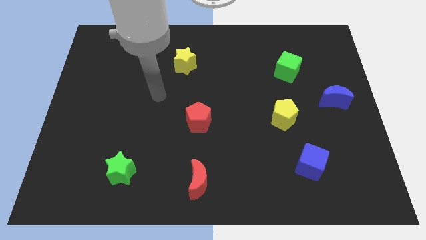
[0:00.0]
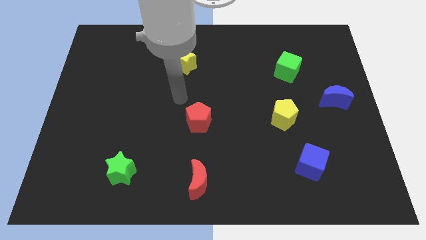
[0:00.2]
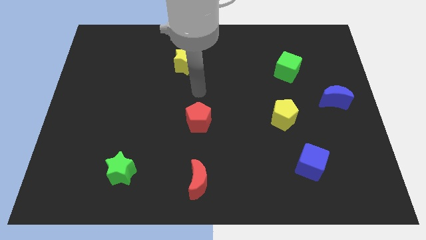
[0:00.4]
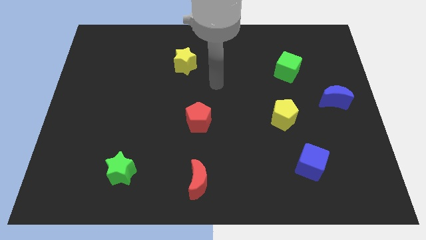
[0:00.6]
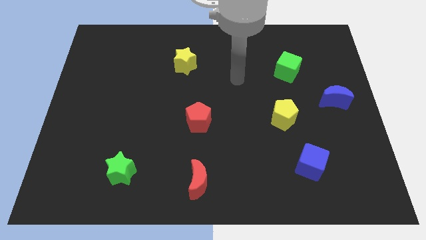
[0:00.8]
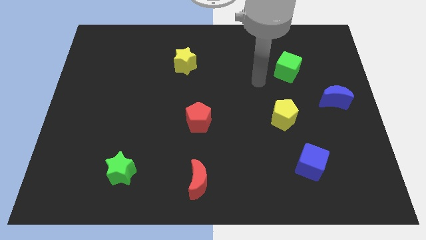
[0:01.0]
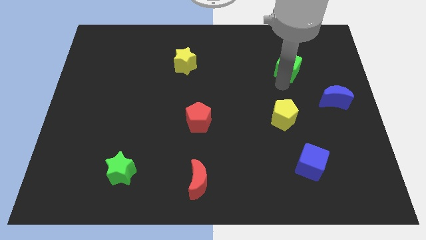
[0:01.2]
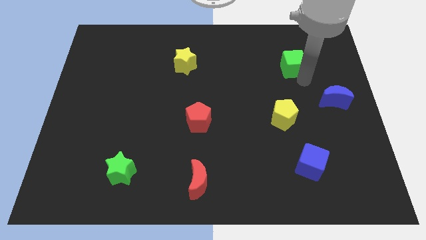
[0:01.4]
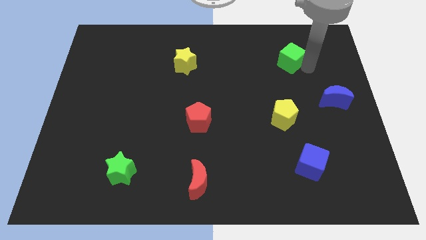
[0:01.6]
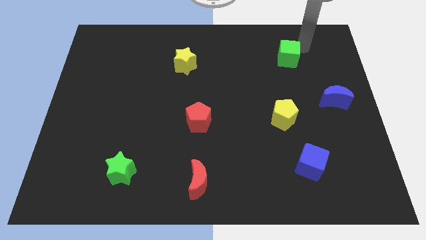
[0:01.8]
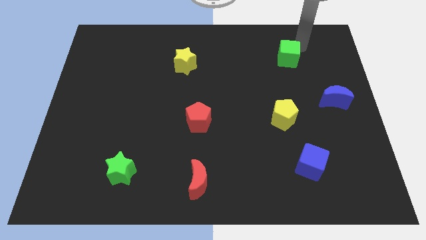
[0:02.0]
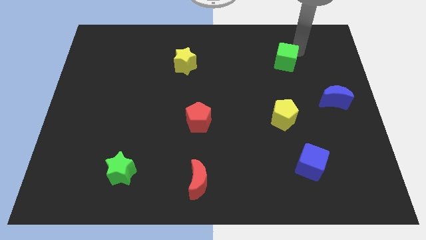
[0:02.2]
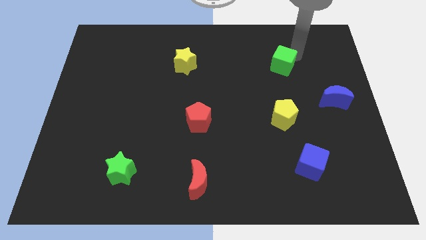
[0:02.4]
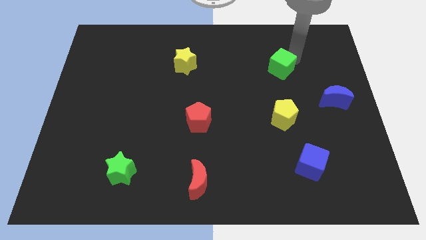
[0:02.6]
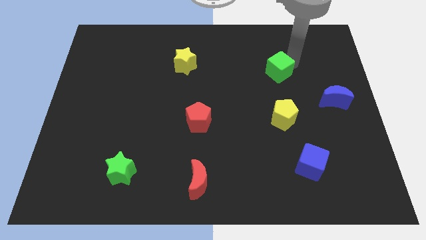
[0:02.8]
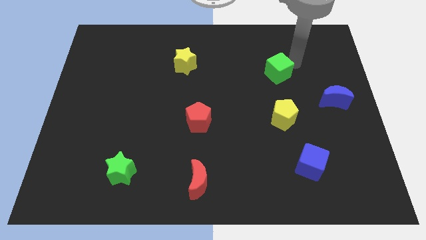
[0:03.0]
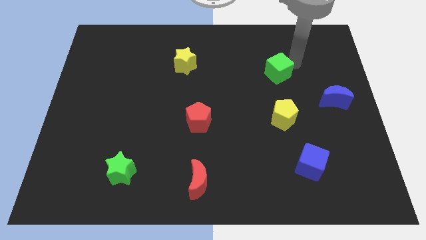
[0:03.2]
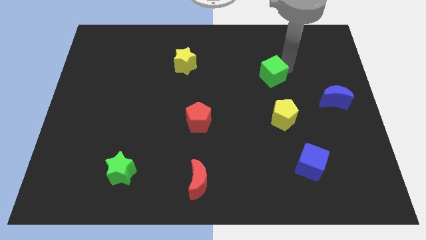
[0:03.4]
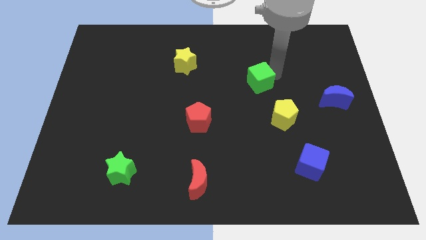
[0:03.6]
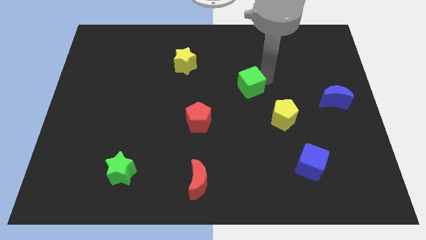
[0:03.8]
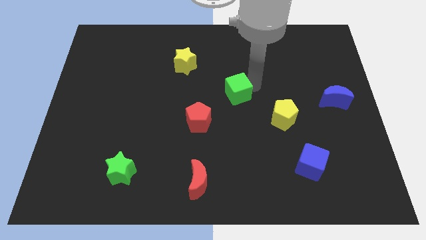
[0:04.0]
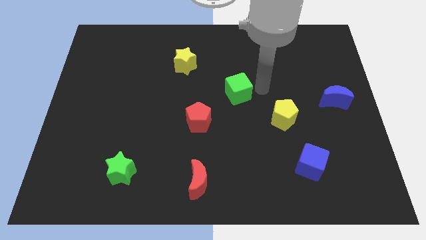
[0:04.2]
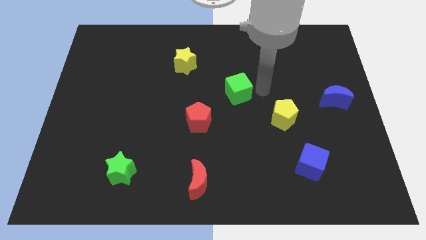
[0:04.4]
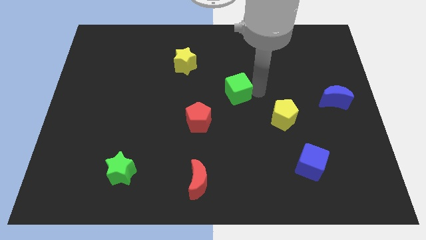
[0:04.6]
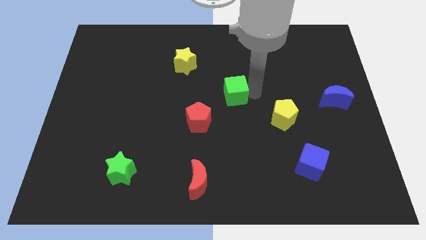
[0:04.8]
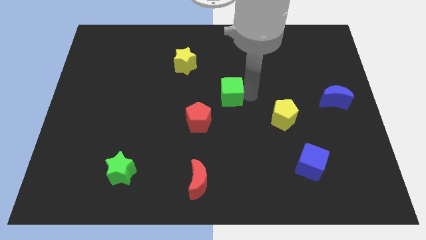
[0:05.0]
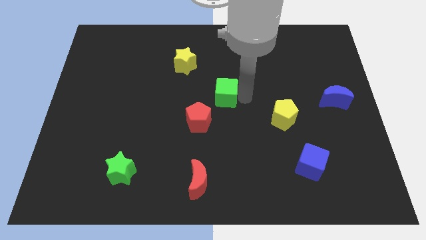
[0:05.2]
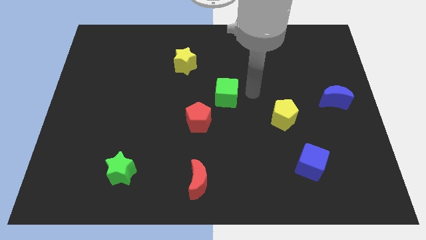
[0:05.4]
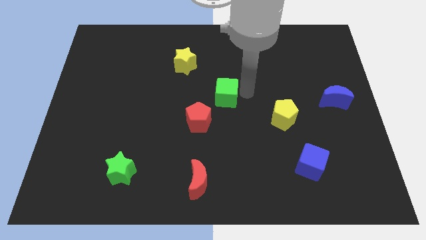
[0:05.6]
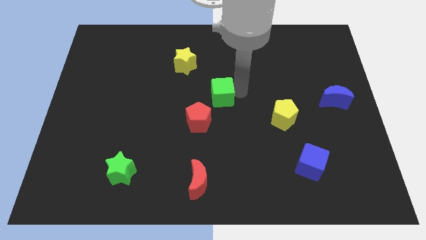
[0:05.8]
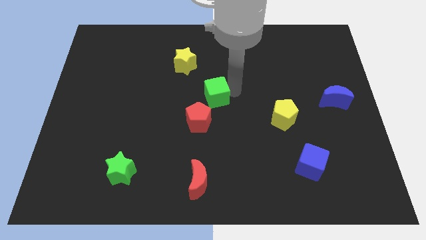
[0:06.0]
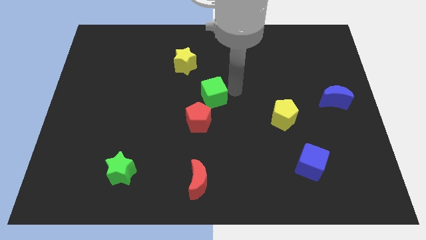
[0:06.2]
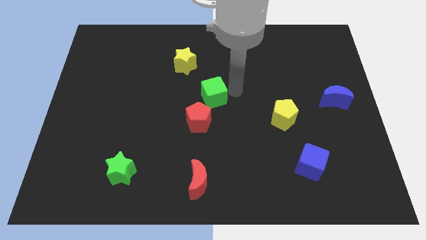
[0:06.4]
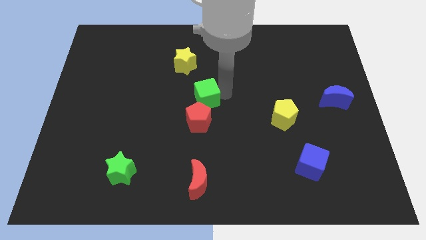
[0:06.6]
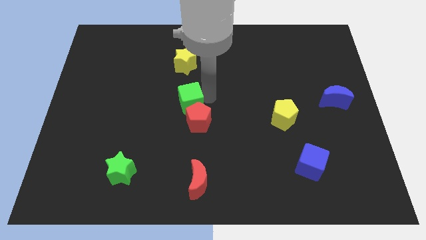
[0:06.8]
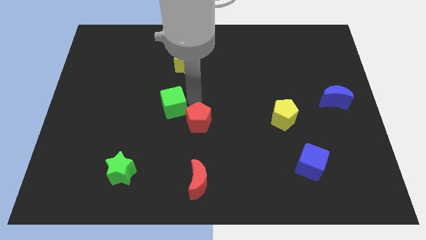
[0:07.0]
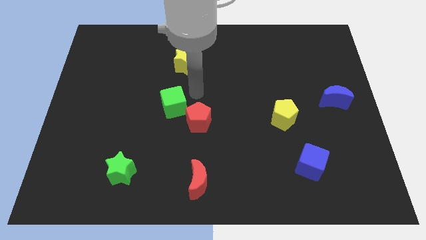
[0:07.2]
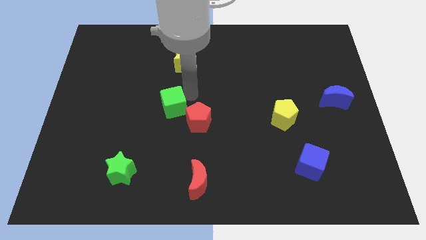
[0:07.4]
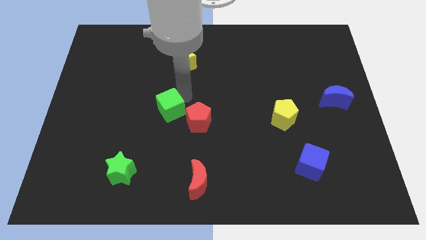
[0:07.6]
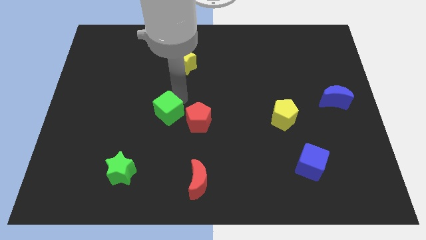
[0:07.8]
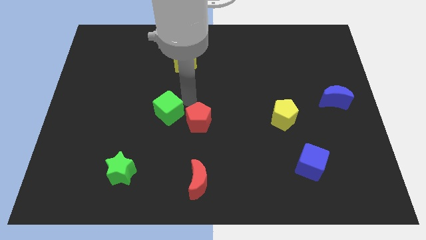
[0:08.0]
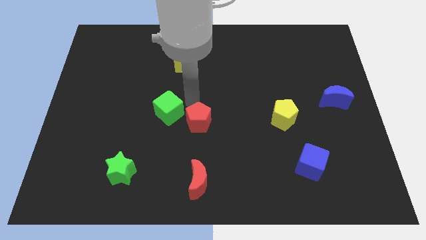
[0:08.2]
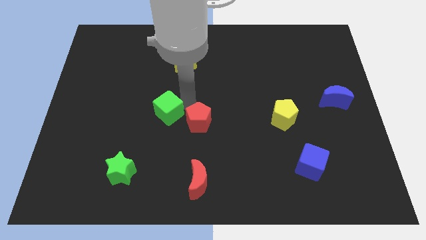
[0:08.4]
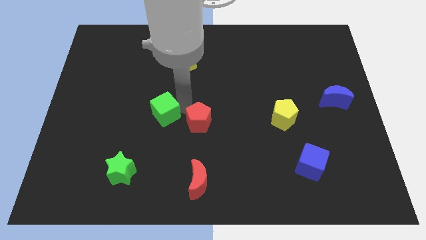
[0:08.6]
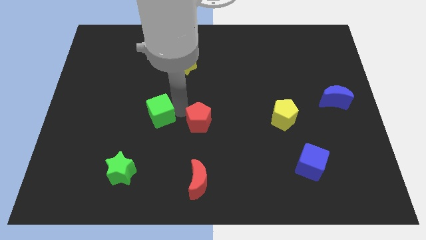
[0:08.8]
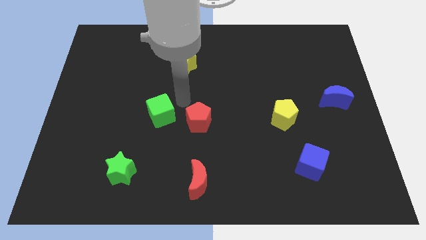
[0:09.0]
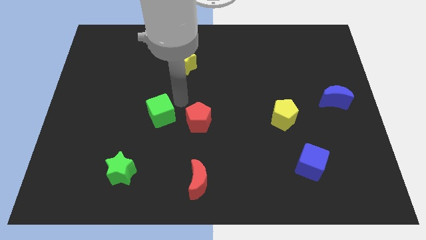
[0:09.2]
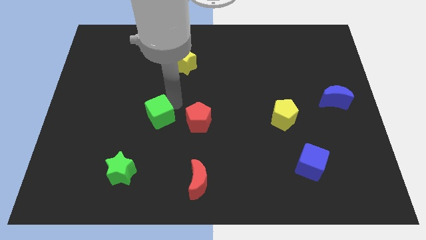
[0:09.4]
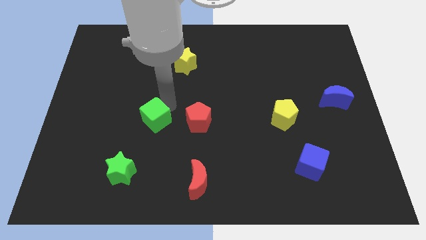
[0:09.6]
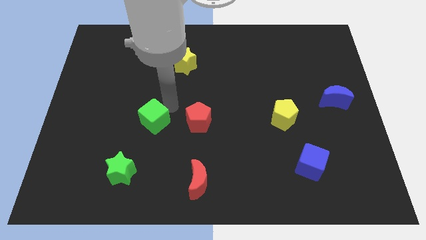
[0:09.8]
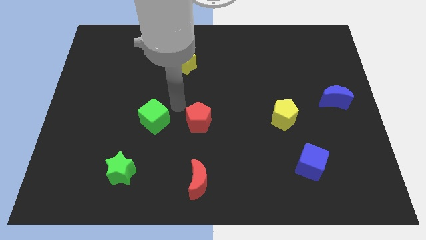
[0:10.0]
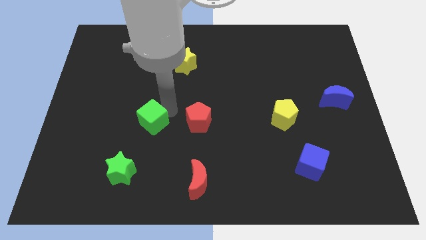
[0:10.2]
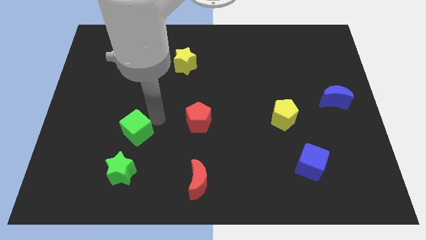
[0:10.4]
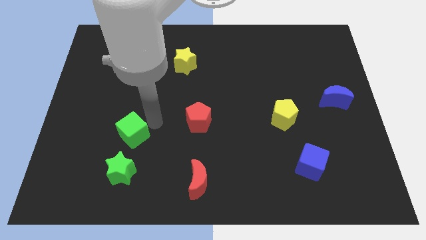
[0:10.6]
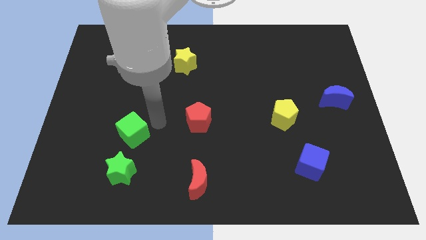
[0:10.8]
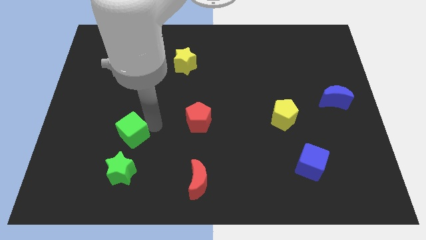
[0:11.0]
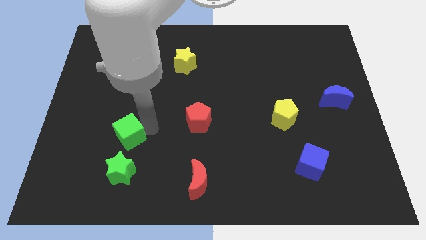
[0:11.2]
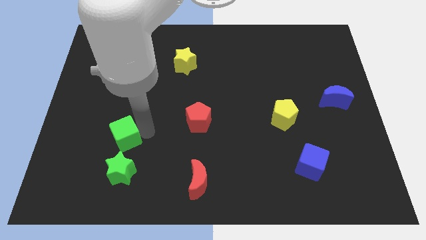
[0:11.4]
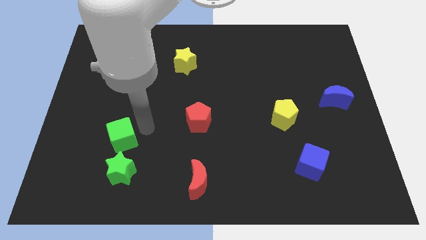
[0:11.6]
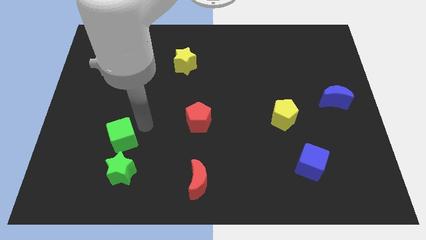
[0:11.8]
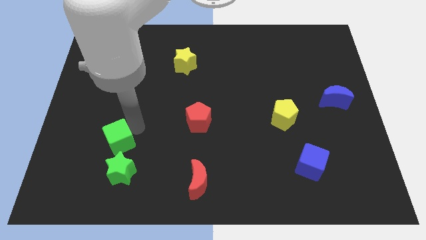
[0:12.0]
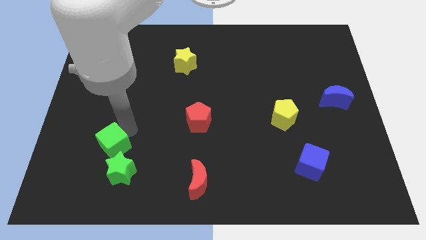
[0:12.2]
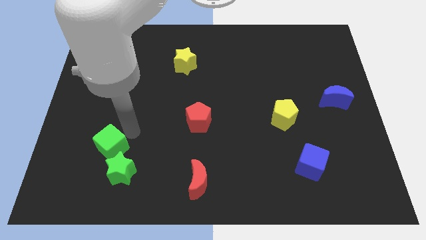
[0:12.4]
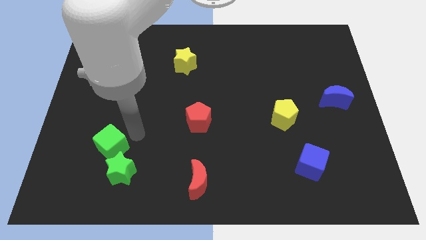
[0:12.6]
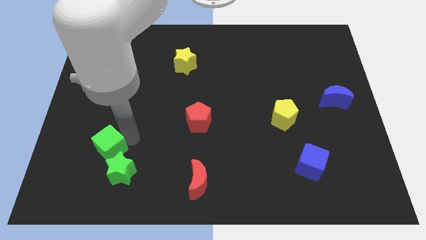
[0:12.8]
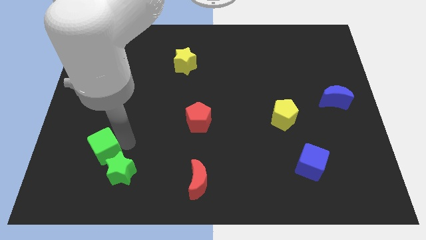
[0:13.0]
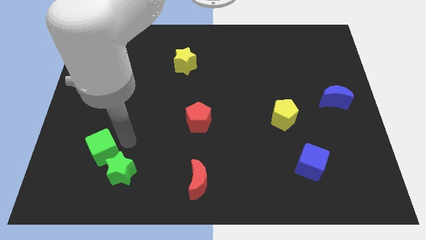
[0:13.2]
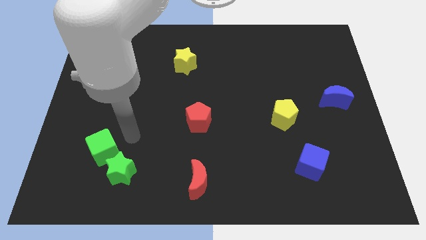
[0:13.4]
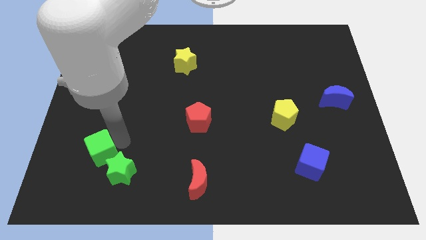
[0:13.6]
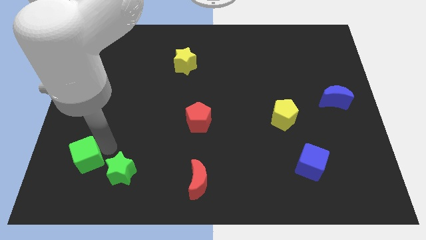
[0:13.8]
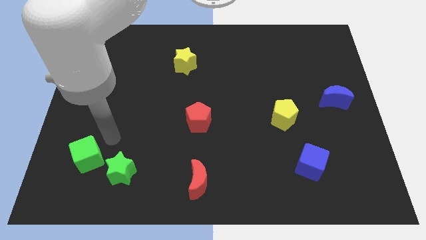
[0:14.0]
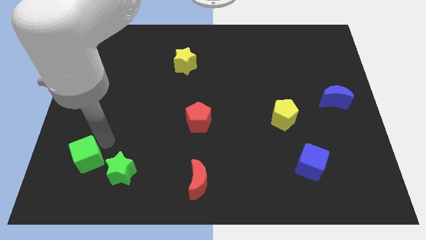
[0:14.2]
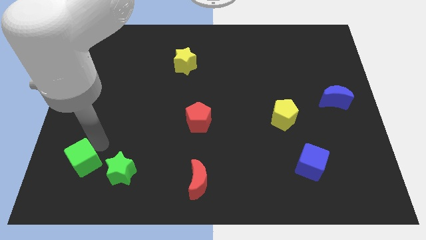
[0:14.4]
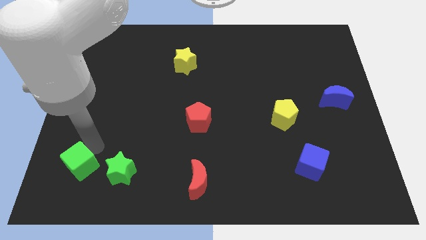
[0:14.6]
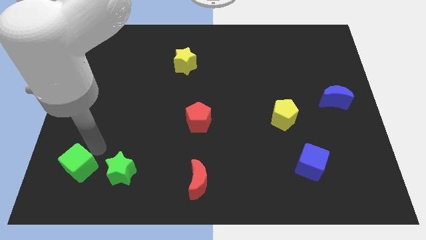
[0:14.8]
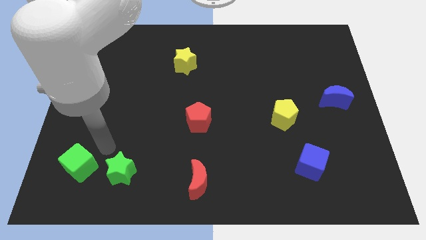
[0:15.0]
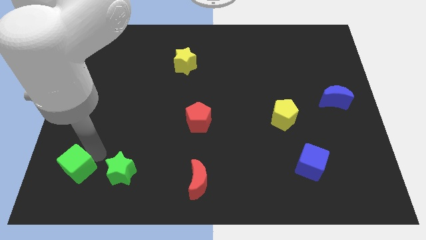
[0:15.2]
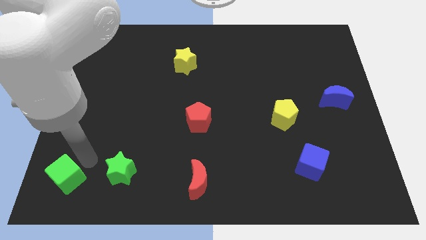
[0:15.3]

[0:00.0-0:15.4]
slide the green cube to the lower left corner
